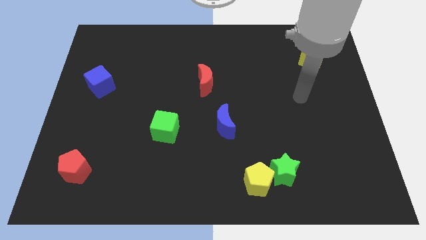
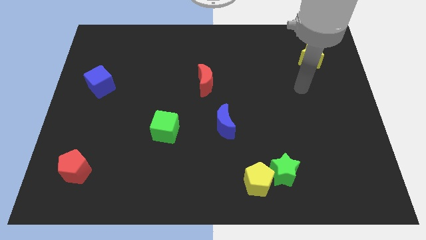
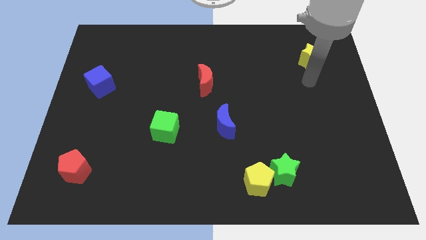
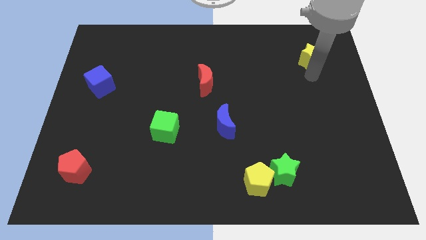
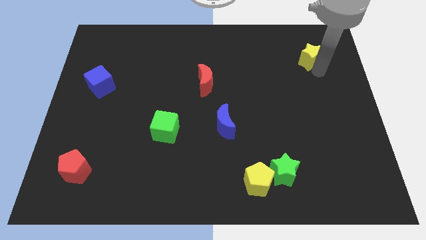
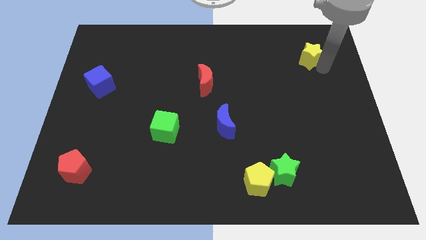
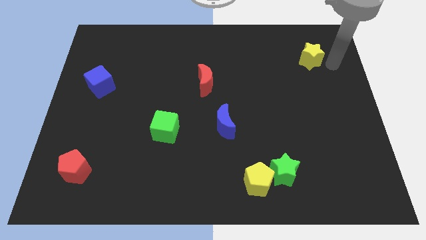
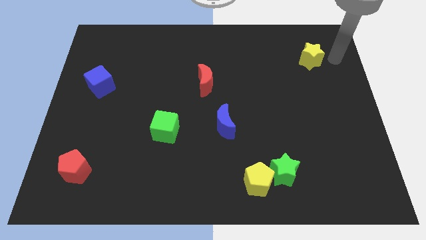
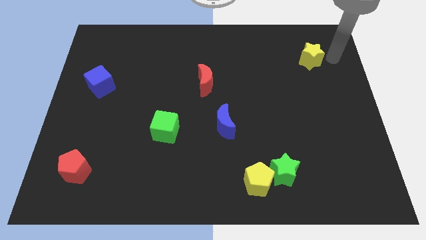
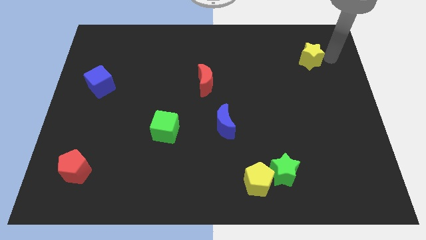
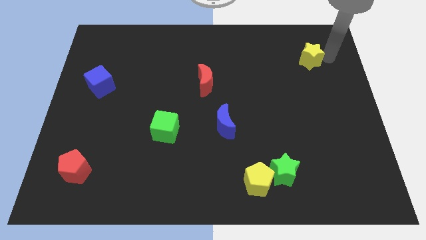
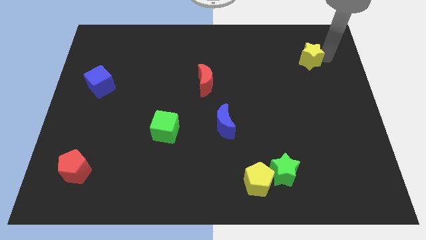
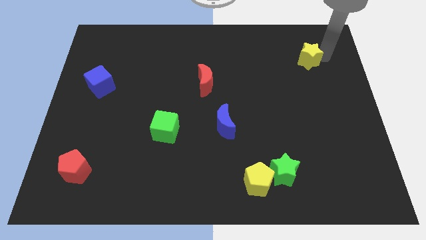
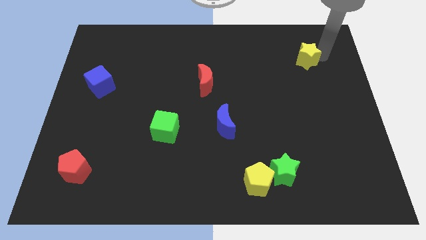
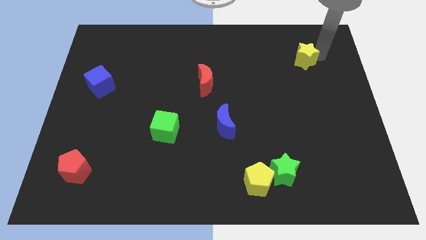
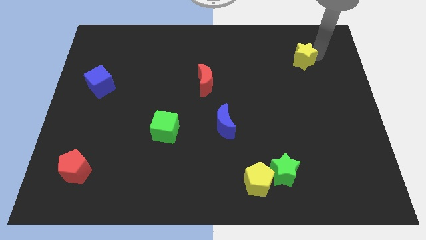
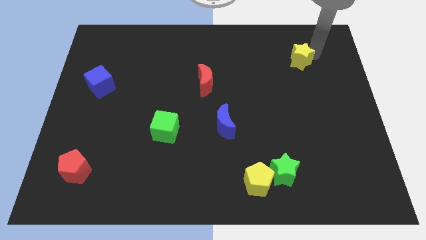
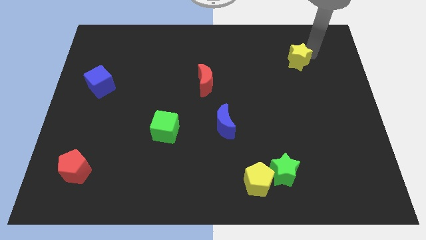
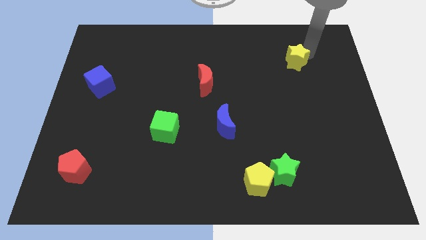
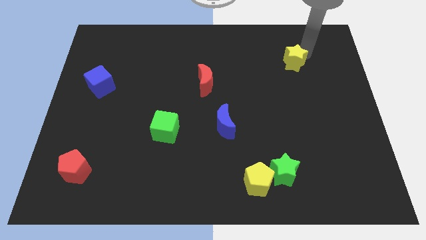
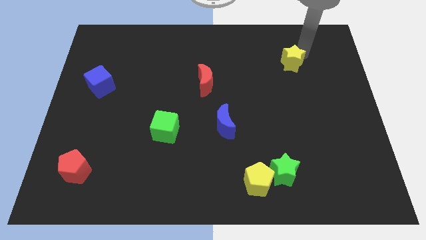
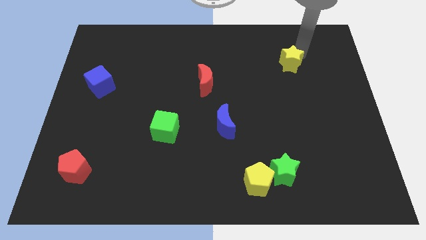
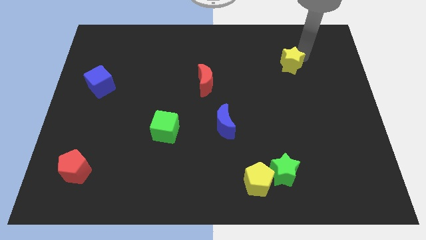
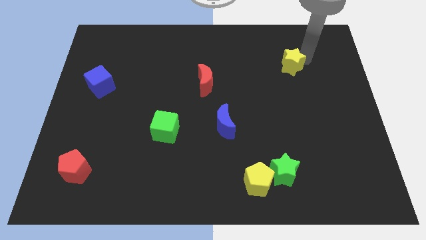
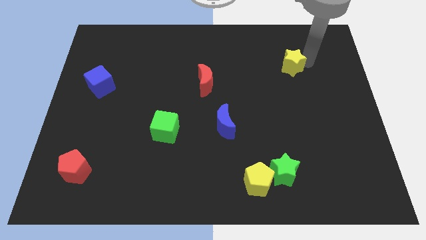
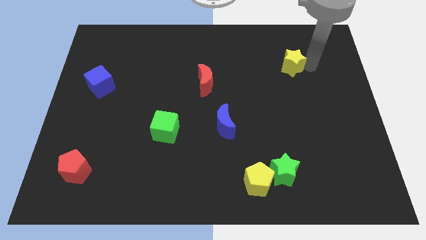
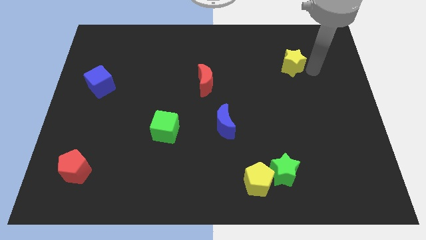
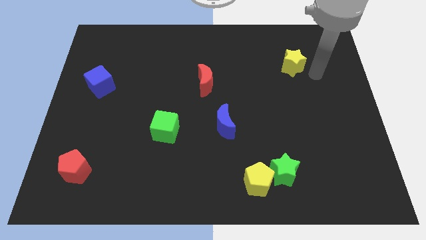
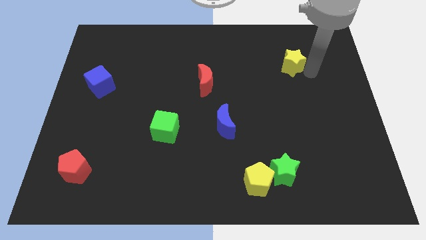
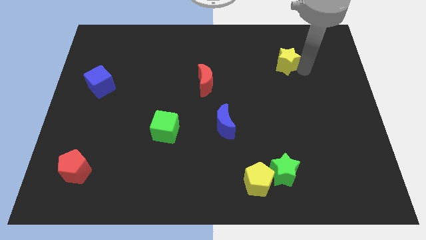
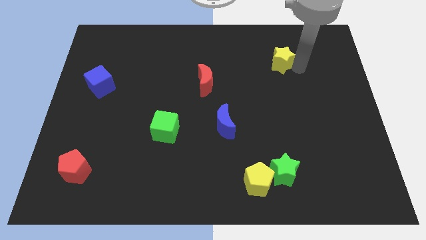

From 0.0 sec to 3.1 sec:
move the yellow star a little left

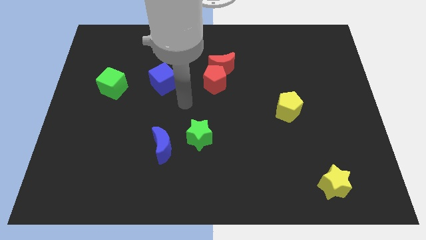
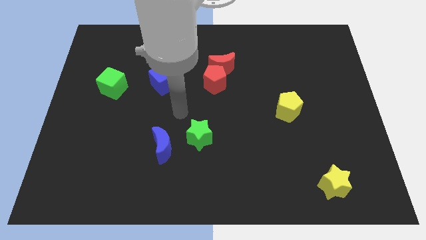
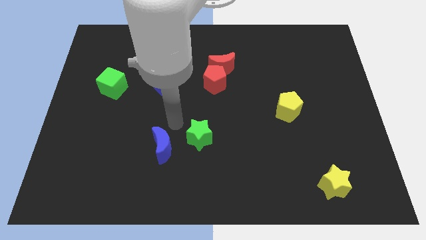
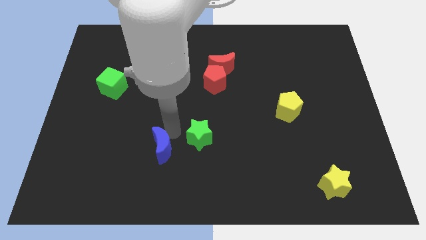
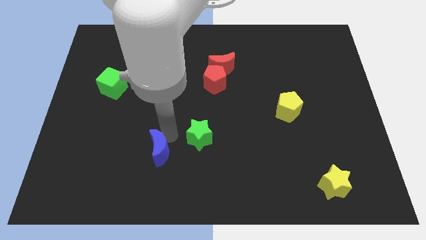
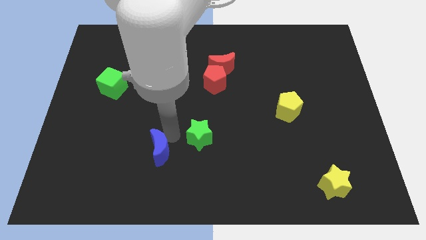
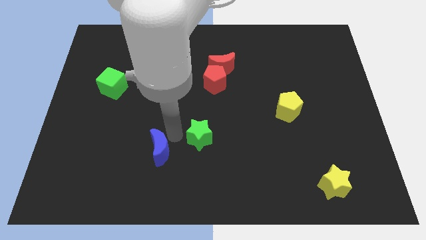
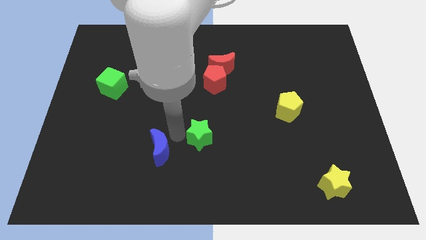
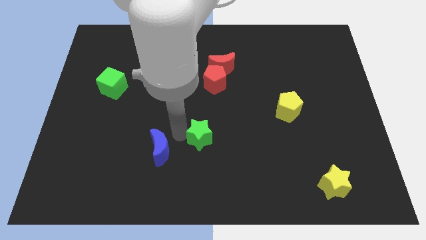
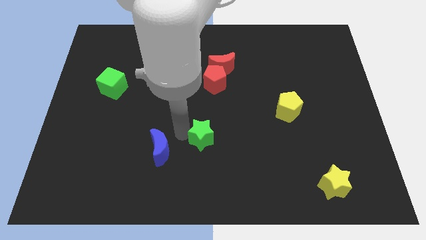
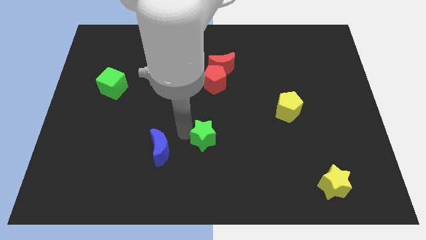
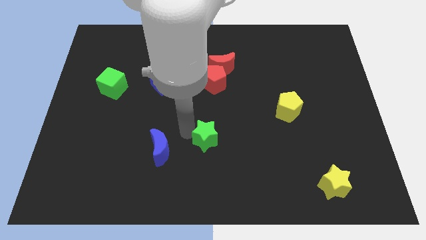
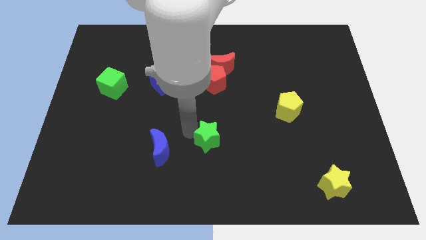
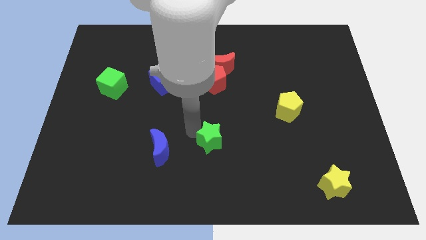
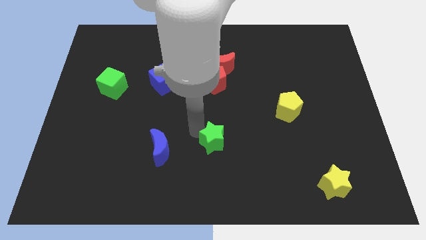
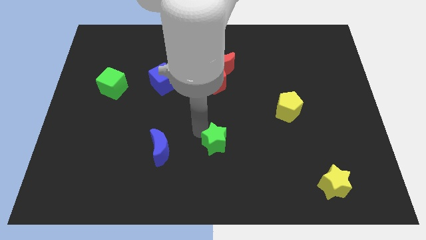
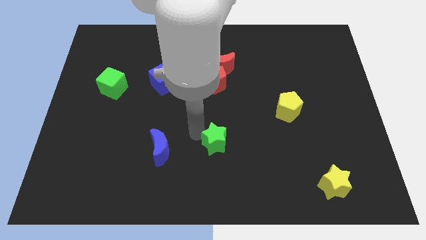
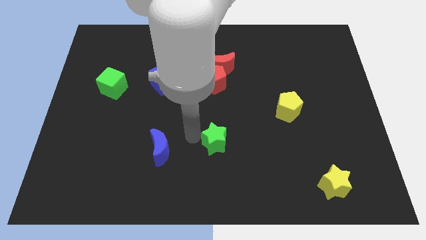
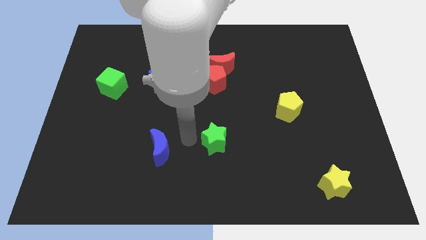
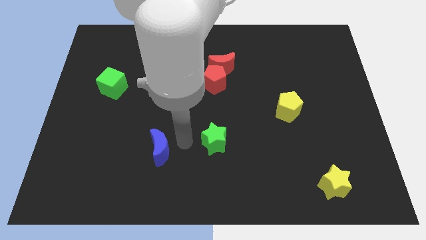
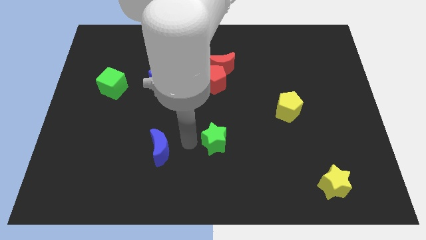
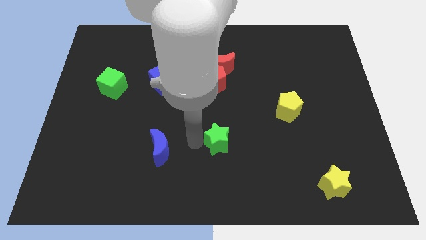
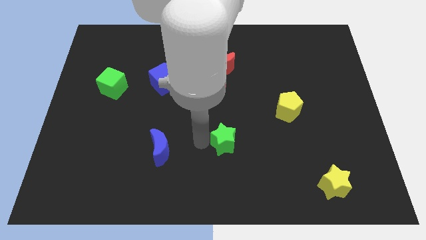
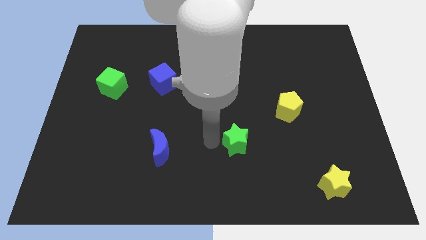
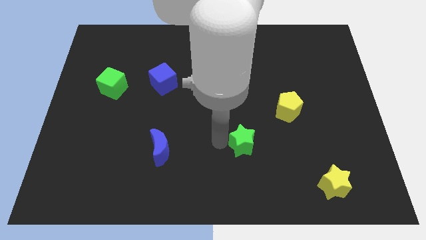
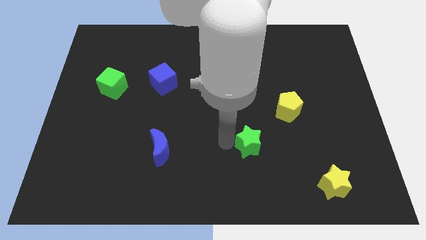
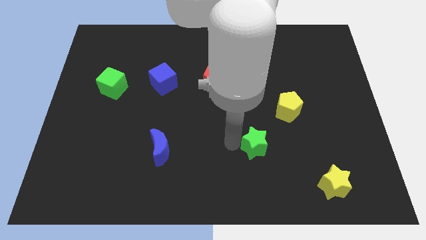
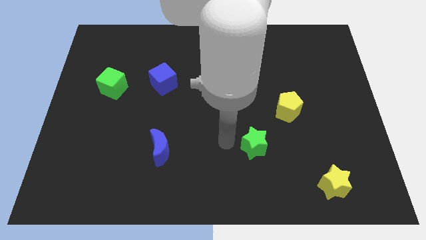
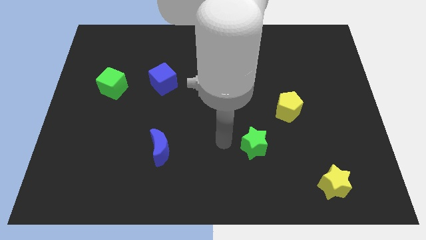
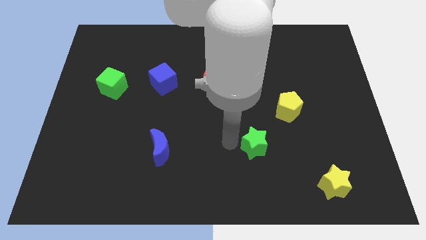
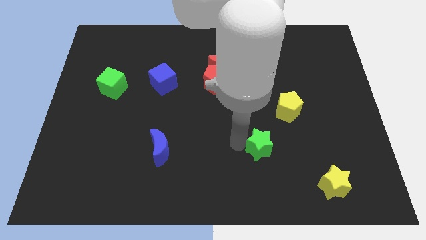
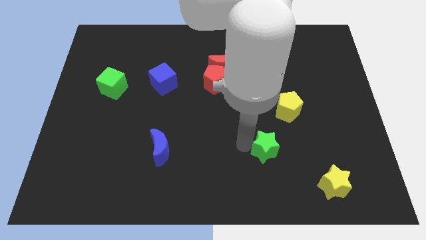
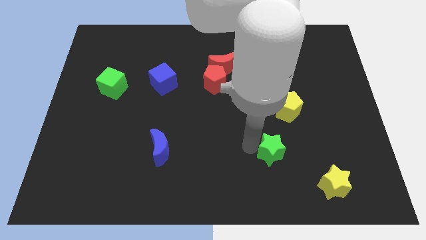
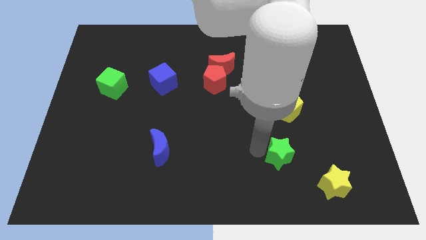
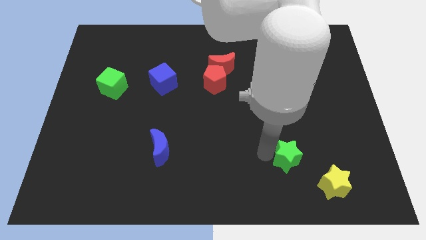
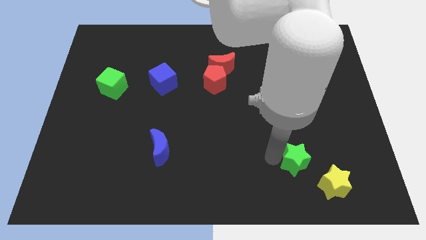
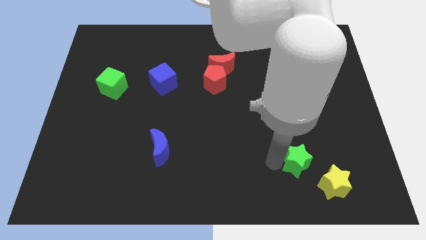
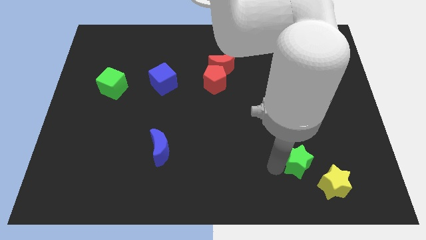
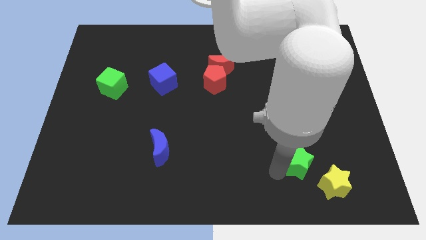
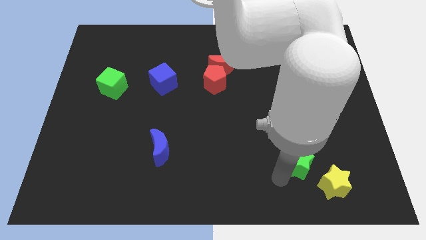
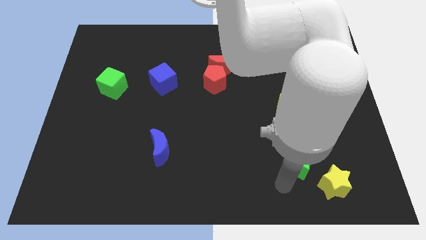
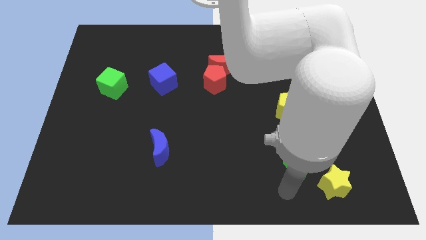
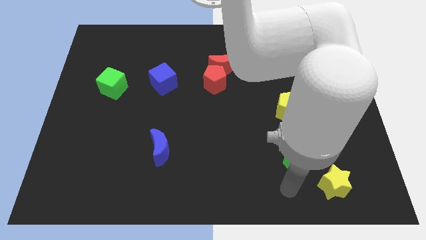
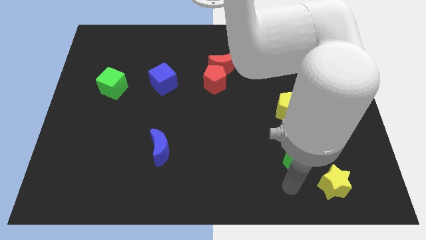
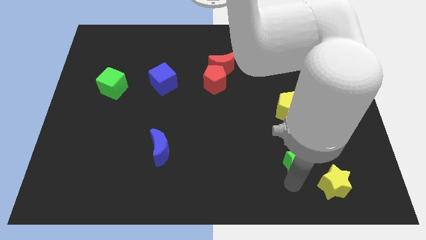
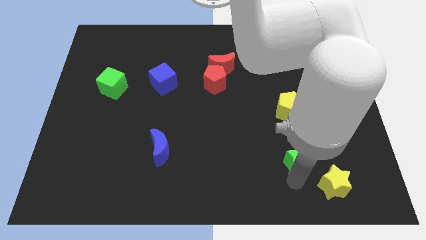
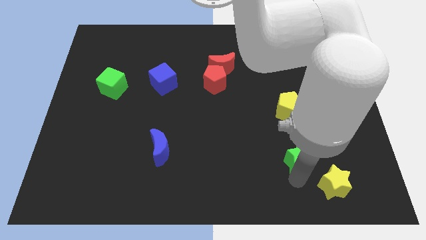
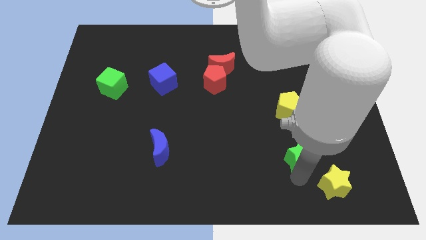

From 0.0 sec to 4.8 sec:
slide the green star right
